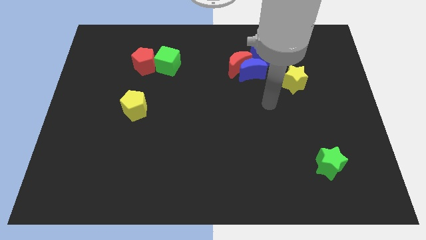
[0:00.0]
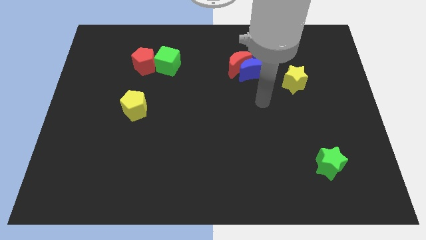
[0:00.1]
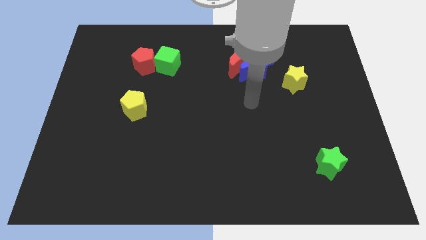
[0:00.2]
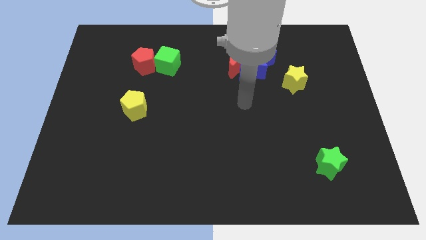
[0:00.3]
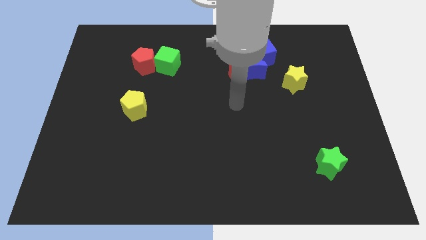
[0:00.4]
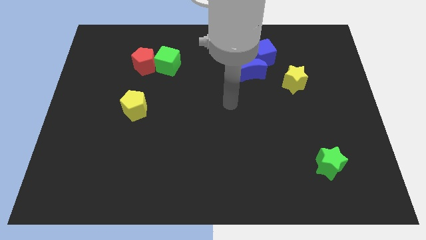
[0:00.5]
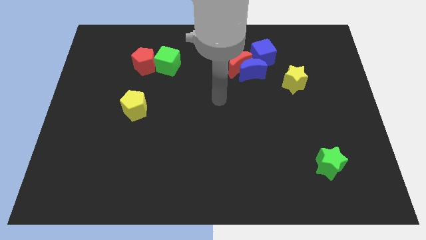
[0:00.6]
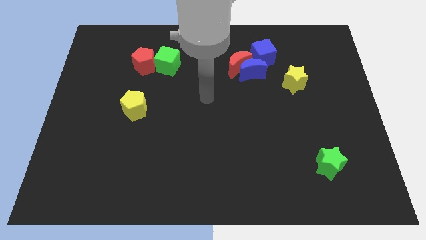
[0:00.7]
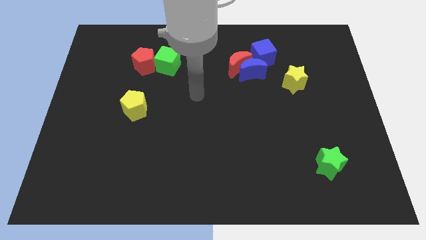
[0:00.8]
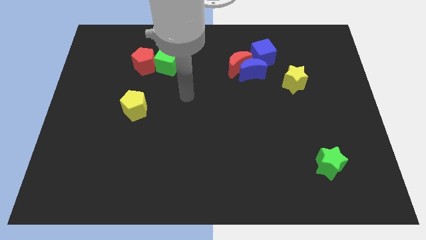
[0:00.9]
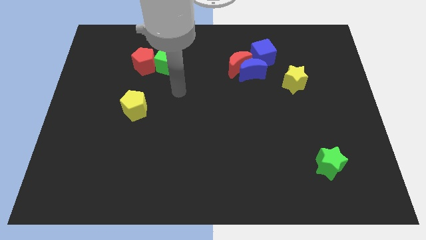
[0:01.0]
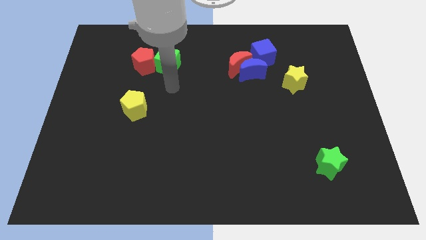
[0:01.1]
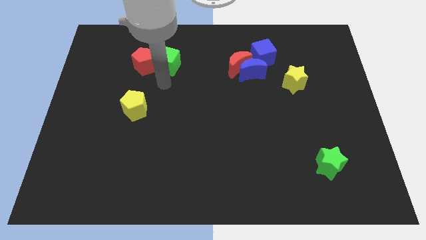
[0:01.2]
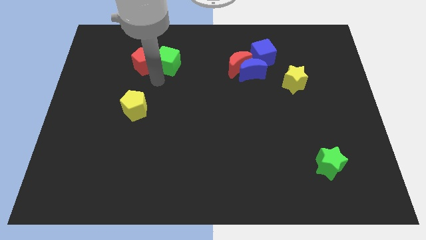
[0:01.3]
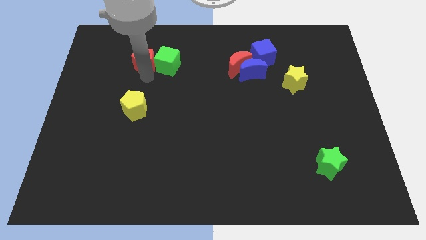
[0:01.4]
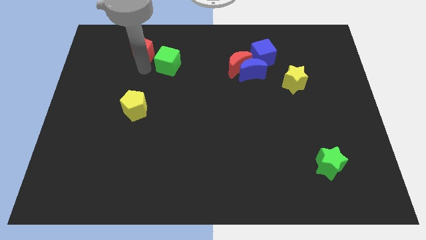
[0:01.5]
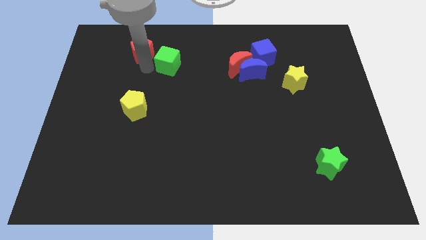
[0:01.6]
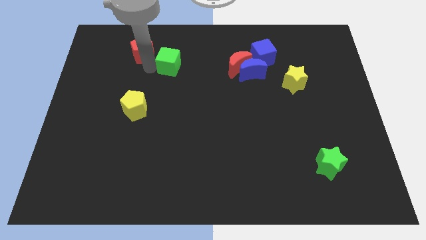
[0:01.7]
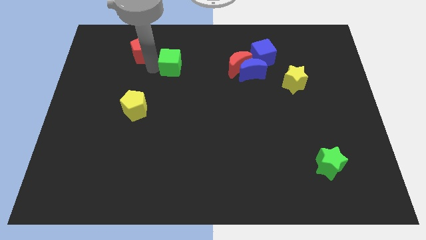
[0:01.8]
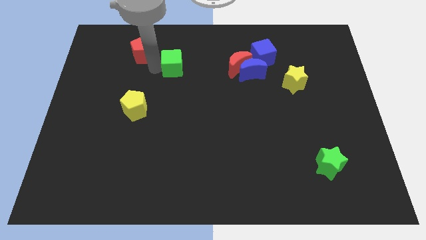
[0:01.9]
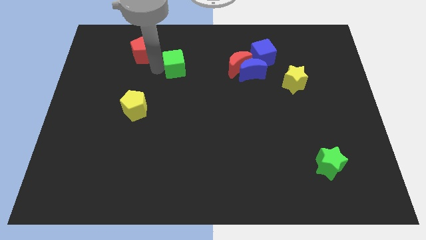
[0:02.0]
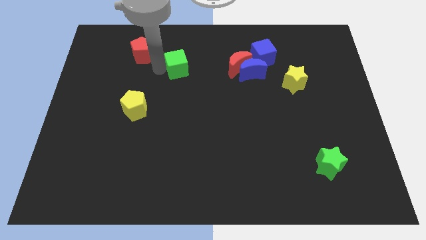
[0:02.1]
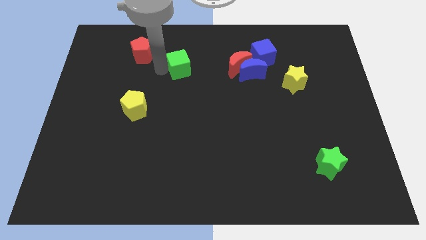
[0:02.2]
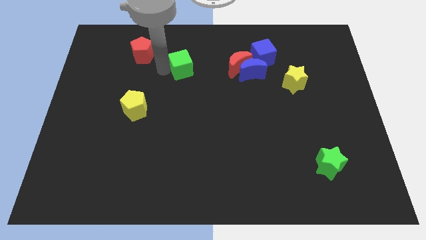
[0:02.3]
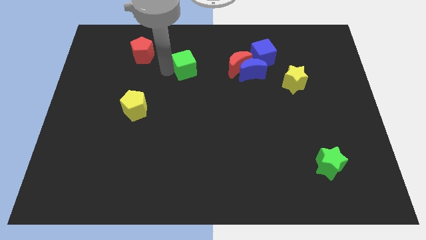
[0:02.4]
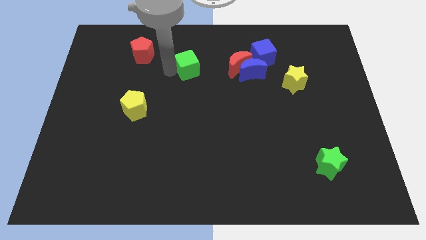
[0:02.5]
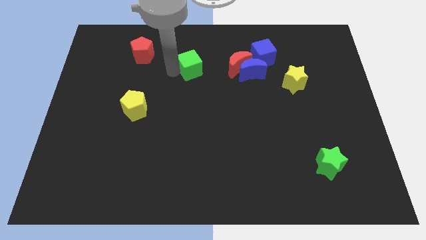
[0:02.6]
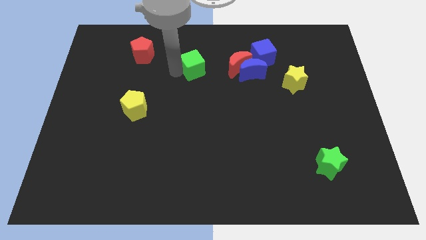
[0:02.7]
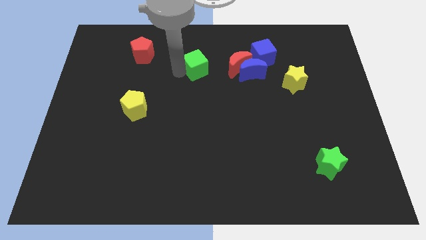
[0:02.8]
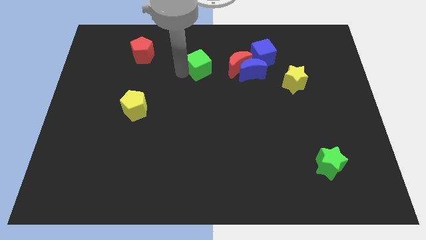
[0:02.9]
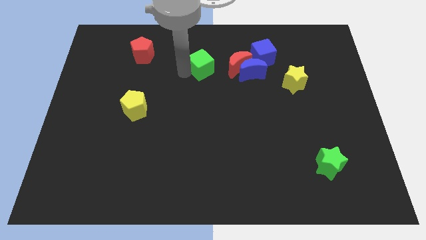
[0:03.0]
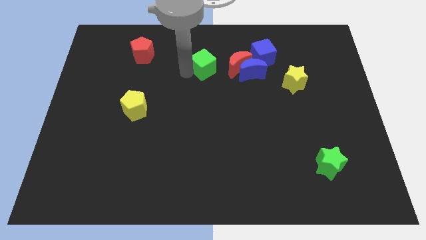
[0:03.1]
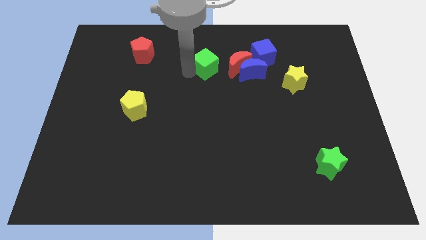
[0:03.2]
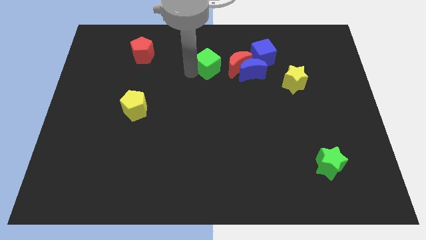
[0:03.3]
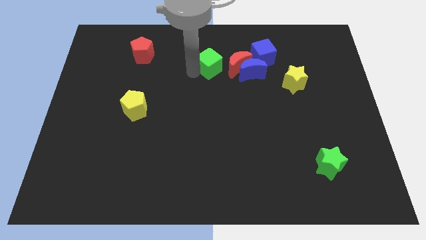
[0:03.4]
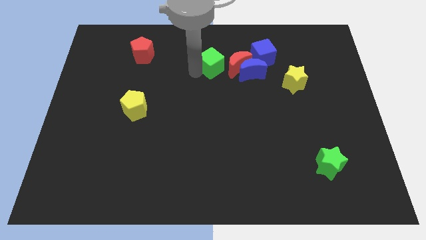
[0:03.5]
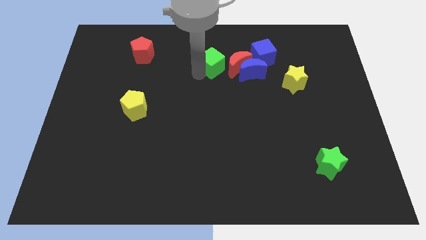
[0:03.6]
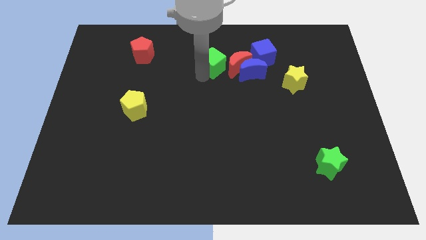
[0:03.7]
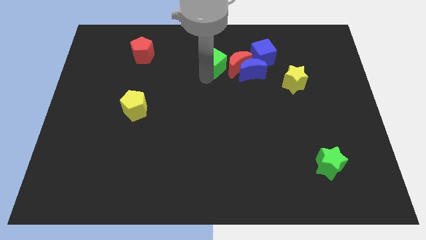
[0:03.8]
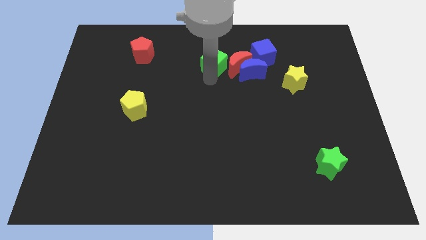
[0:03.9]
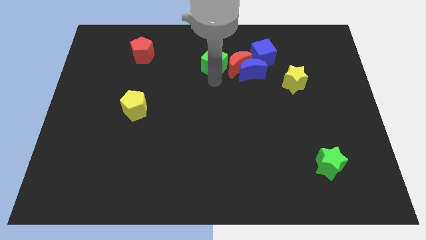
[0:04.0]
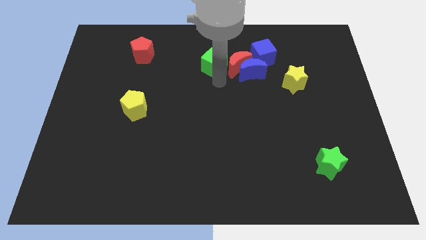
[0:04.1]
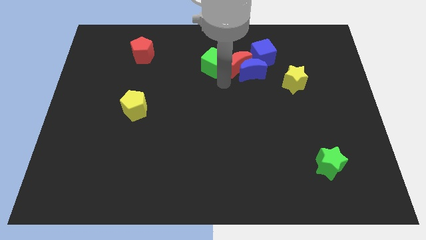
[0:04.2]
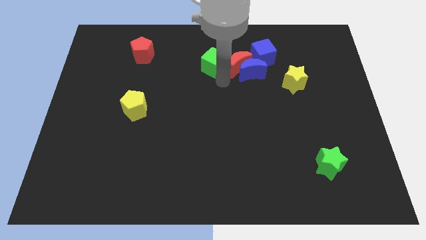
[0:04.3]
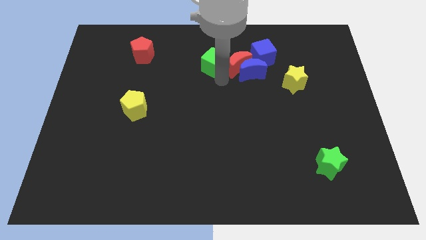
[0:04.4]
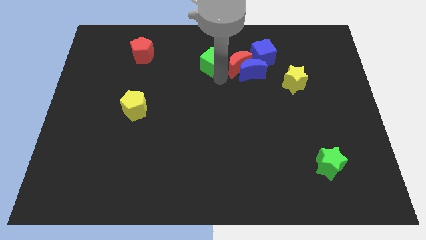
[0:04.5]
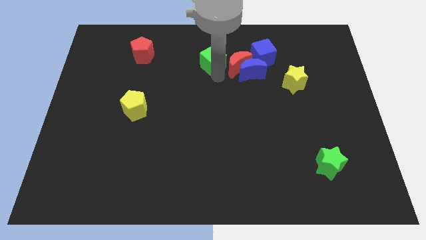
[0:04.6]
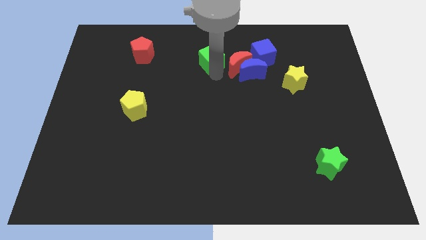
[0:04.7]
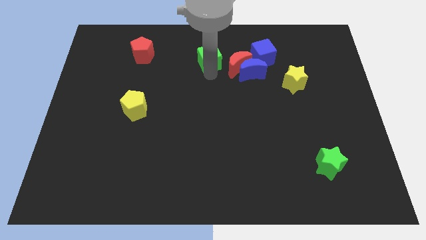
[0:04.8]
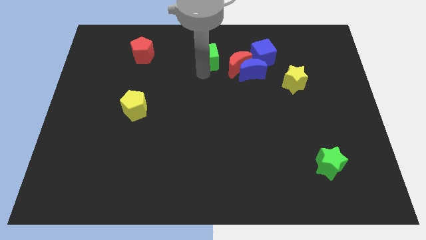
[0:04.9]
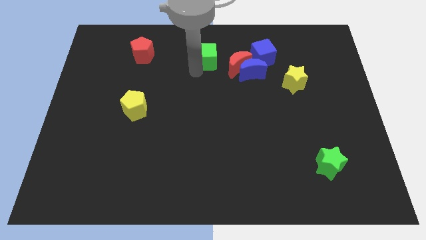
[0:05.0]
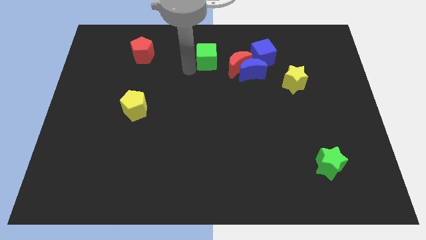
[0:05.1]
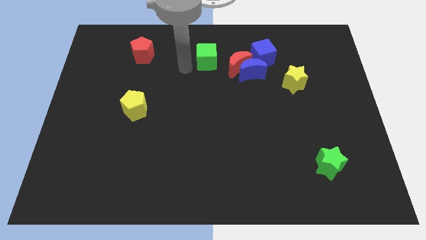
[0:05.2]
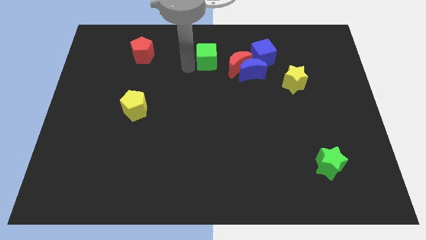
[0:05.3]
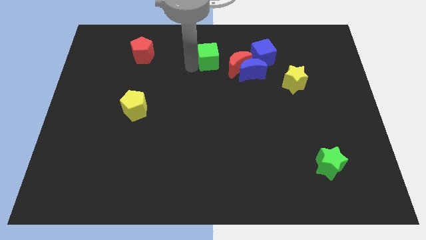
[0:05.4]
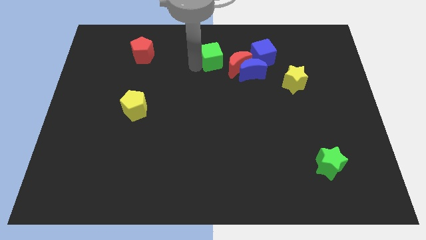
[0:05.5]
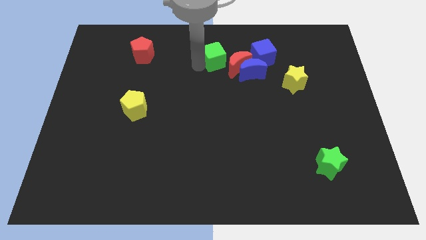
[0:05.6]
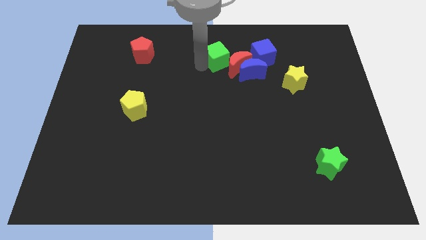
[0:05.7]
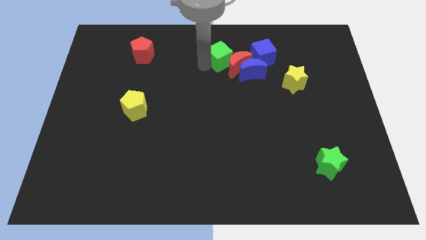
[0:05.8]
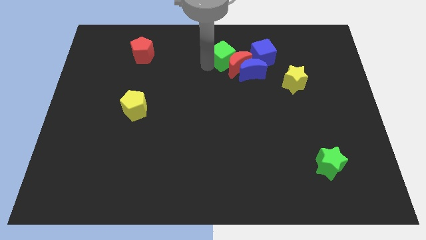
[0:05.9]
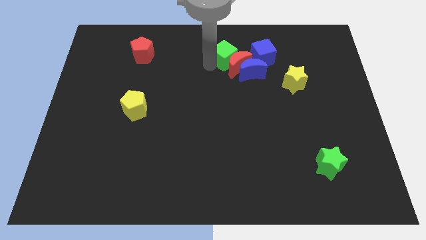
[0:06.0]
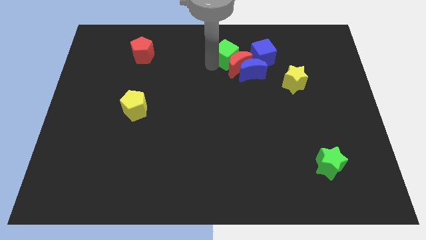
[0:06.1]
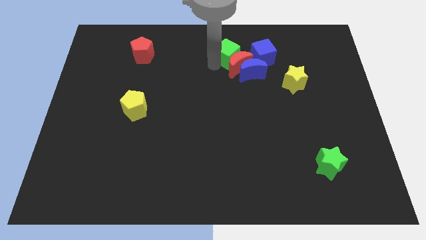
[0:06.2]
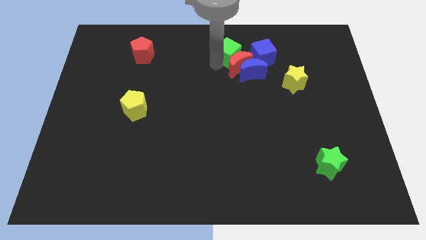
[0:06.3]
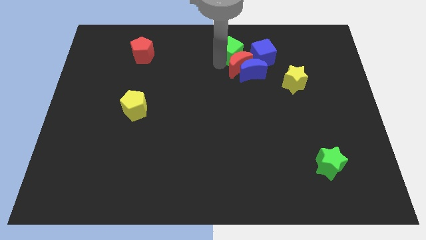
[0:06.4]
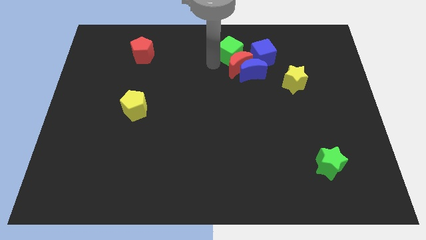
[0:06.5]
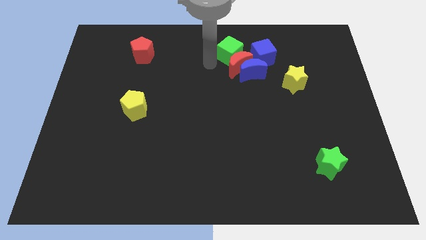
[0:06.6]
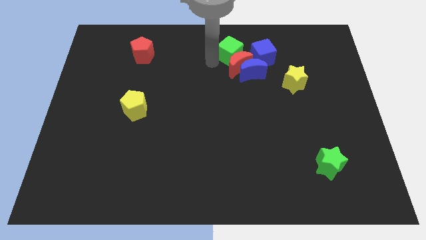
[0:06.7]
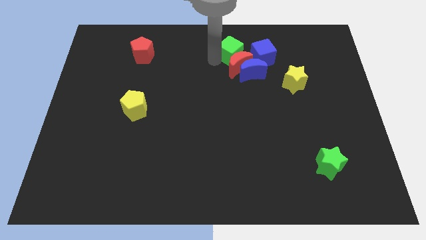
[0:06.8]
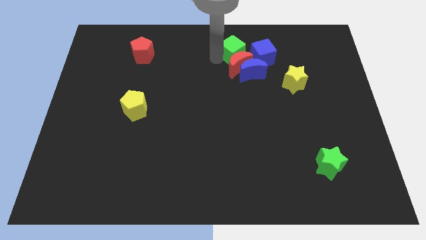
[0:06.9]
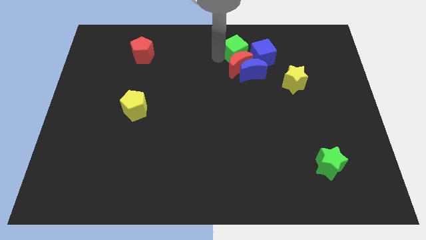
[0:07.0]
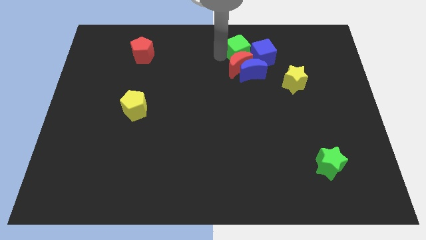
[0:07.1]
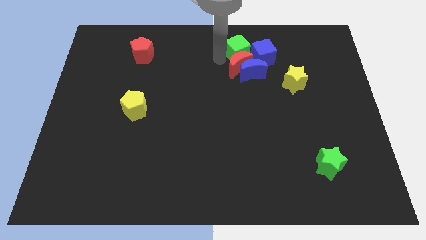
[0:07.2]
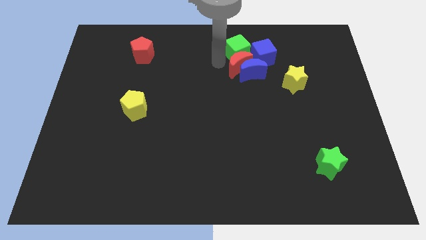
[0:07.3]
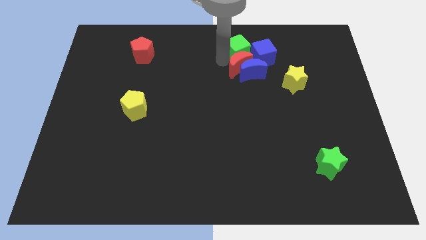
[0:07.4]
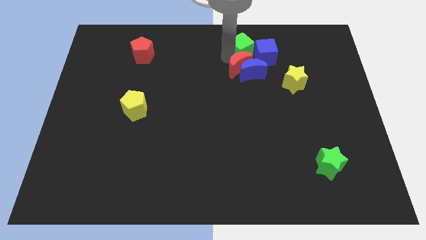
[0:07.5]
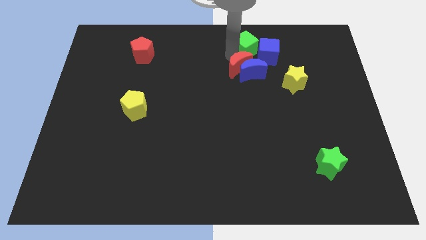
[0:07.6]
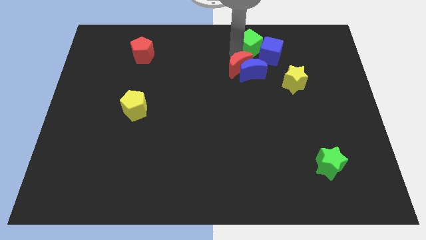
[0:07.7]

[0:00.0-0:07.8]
move the green cube right
